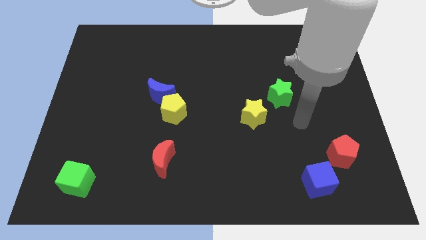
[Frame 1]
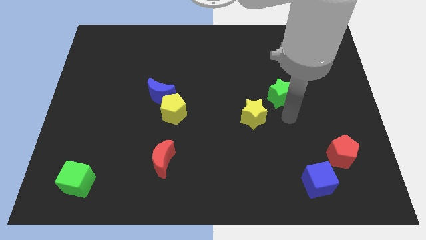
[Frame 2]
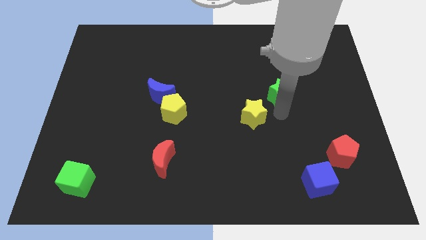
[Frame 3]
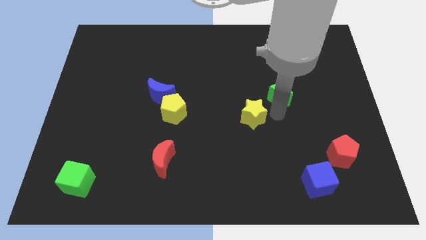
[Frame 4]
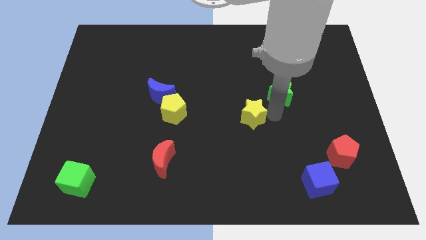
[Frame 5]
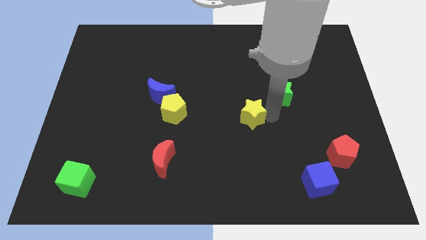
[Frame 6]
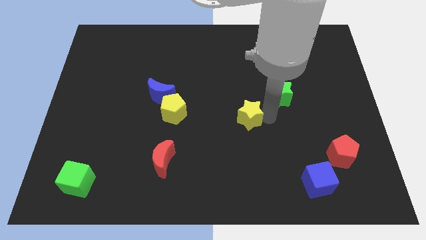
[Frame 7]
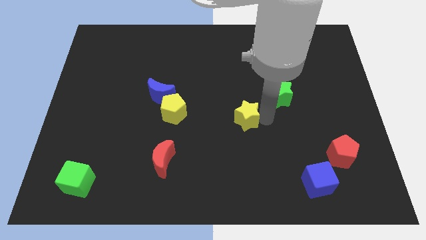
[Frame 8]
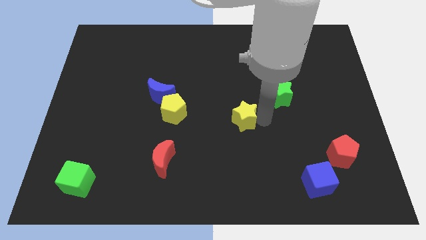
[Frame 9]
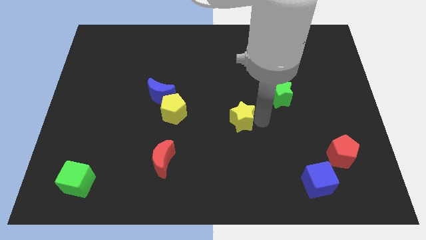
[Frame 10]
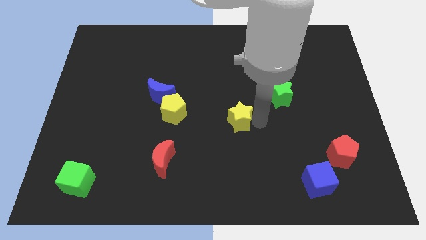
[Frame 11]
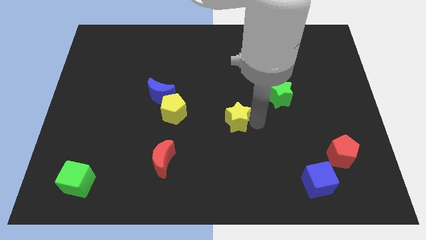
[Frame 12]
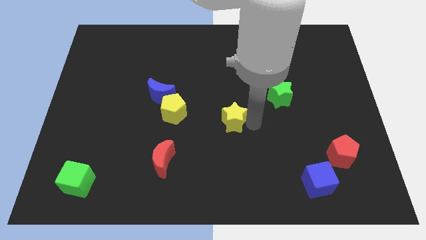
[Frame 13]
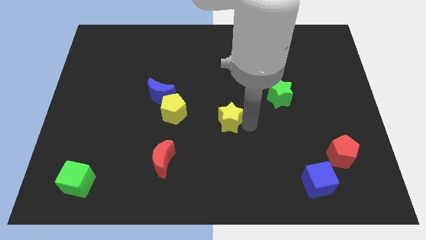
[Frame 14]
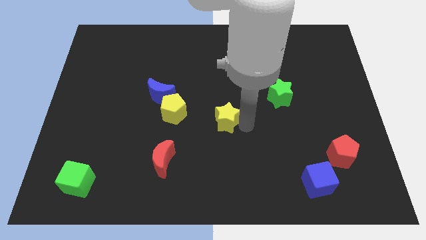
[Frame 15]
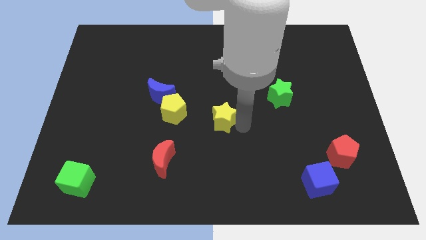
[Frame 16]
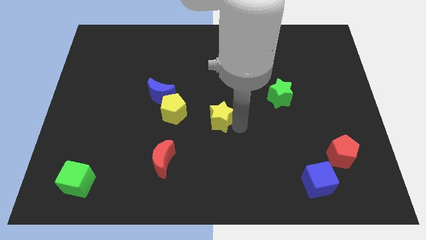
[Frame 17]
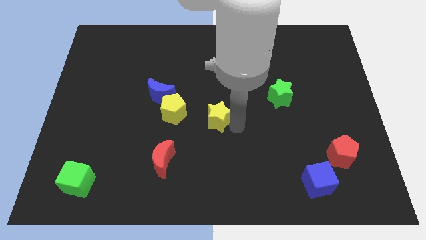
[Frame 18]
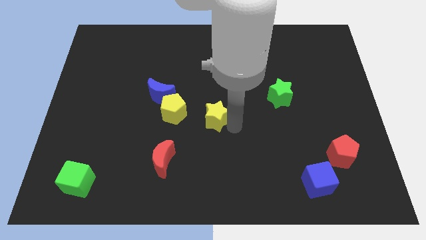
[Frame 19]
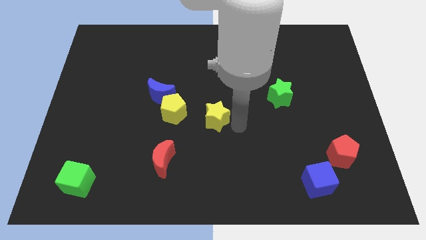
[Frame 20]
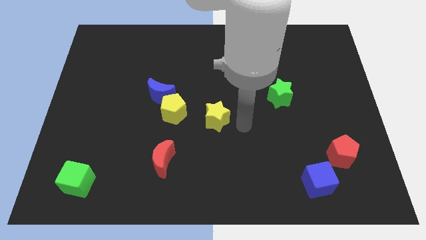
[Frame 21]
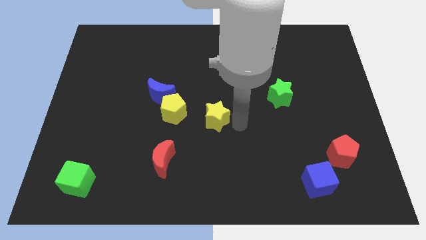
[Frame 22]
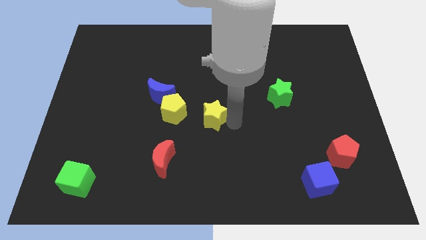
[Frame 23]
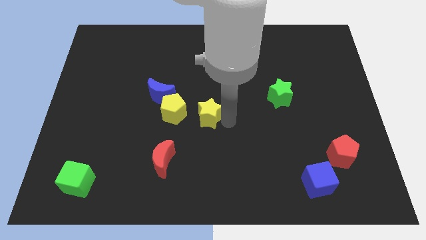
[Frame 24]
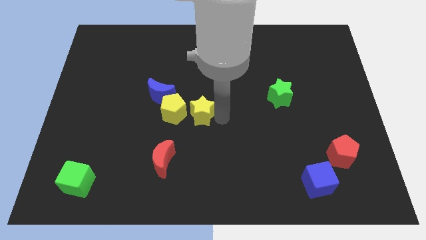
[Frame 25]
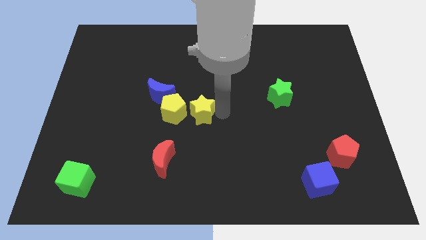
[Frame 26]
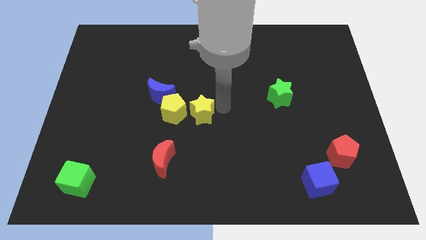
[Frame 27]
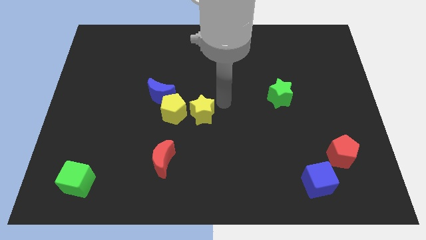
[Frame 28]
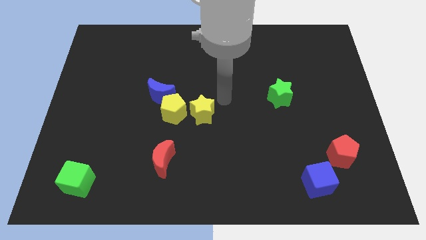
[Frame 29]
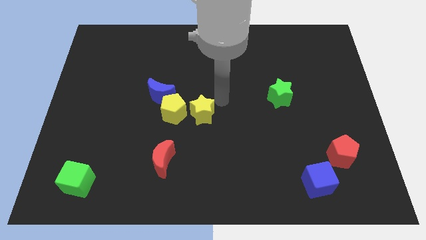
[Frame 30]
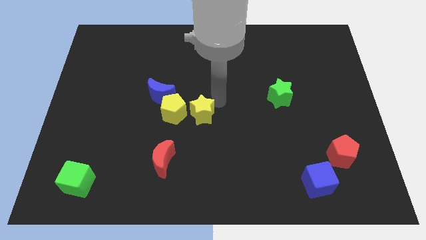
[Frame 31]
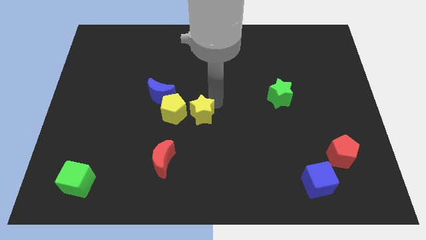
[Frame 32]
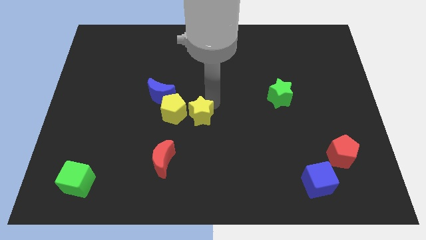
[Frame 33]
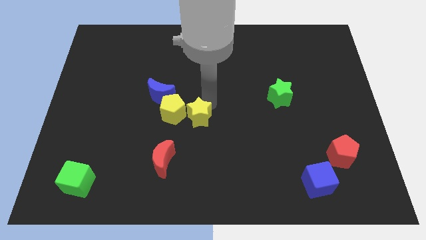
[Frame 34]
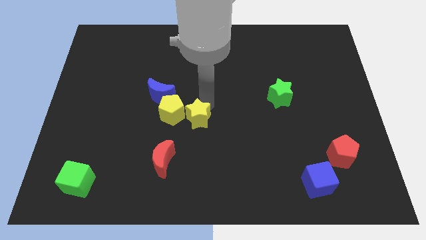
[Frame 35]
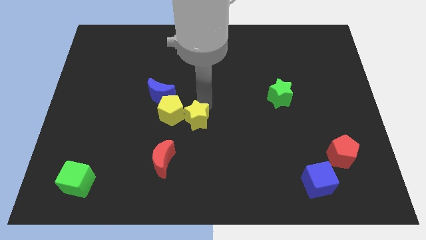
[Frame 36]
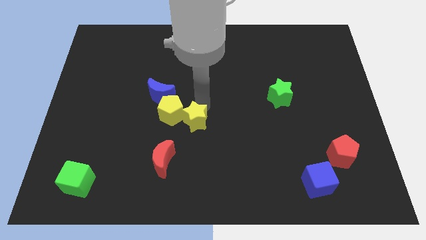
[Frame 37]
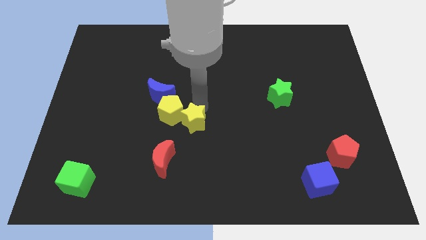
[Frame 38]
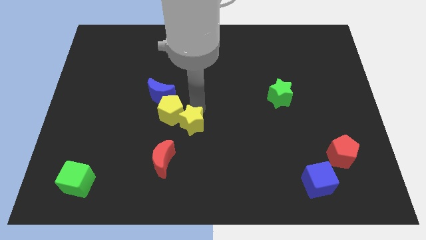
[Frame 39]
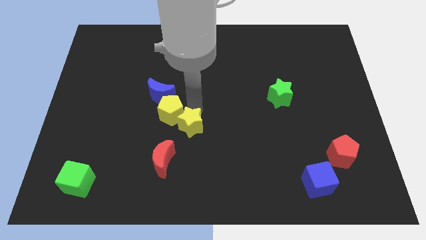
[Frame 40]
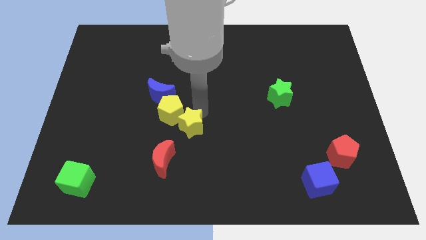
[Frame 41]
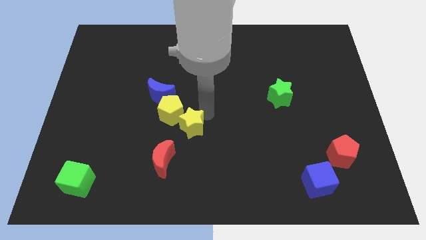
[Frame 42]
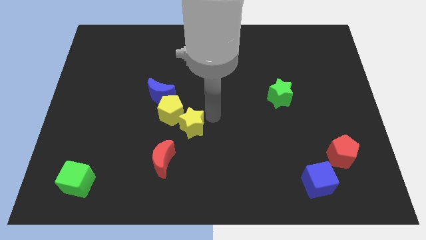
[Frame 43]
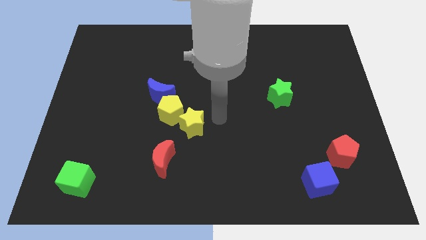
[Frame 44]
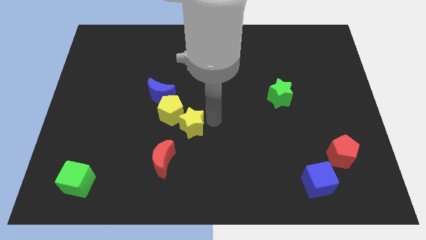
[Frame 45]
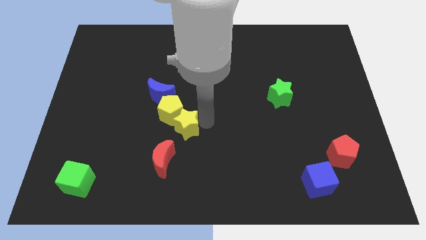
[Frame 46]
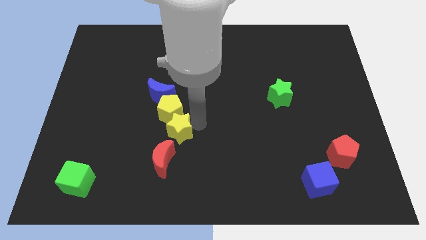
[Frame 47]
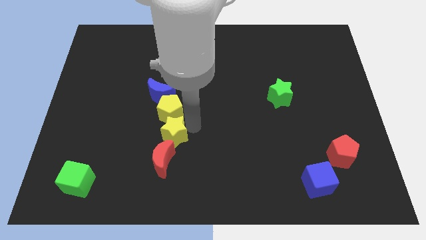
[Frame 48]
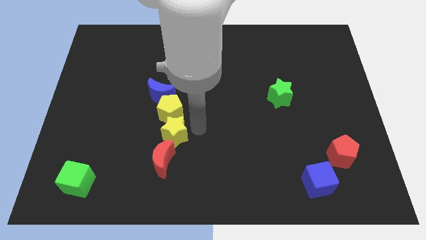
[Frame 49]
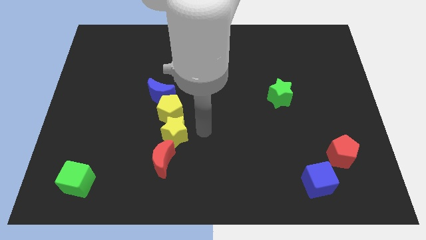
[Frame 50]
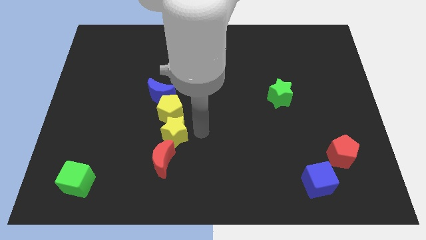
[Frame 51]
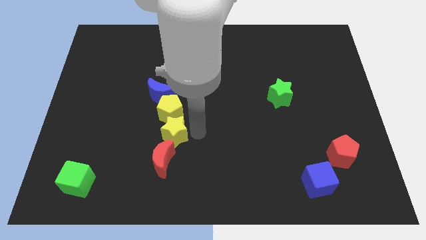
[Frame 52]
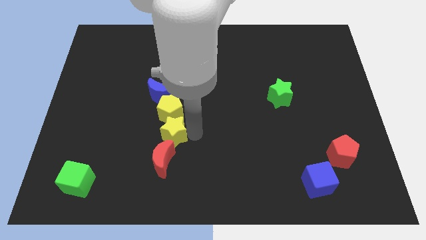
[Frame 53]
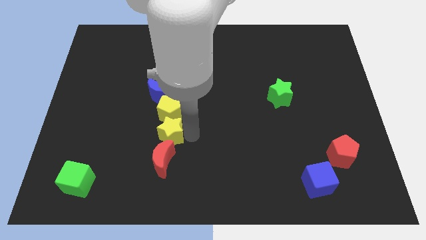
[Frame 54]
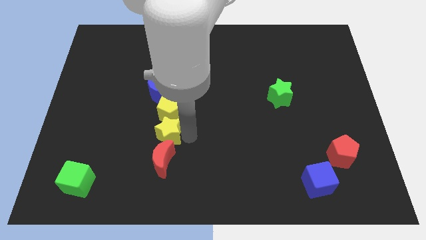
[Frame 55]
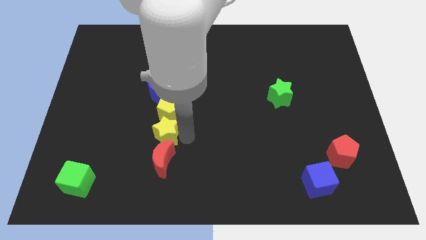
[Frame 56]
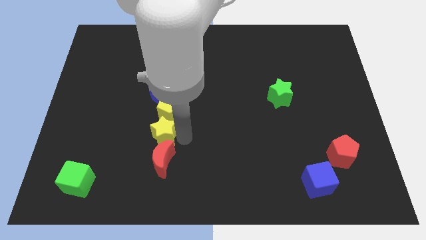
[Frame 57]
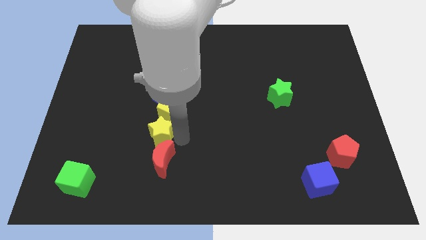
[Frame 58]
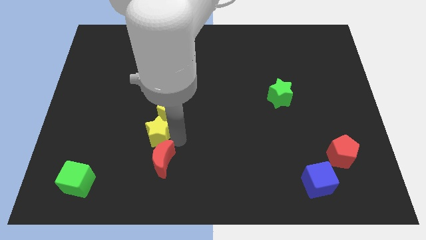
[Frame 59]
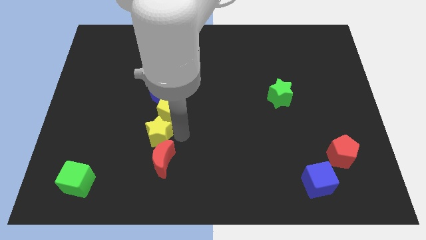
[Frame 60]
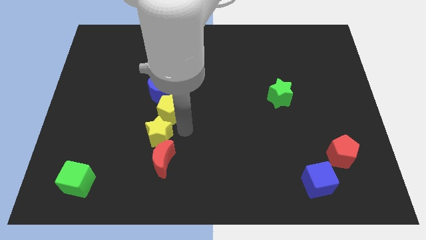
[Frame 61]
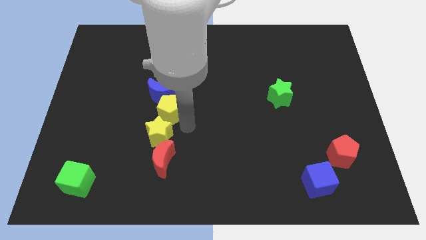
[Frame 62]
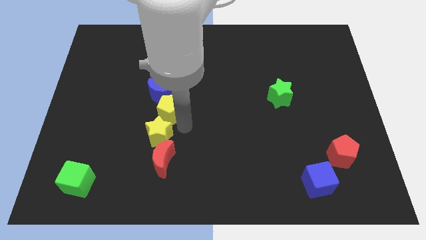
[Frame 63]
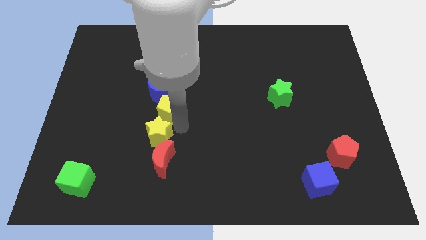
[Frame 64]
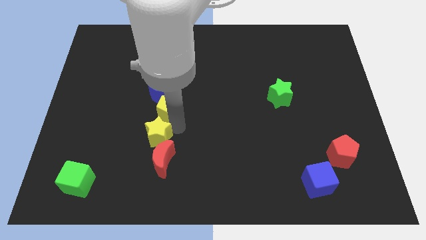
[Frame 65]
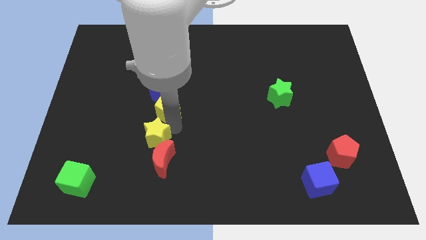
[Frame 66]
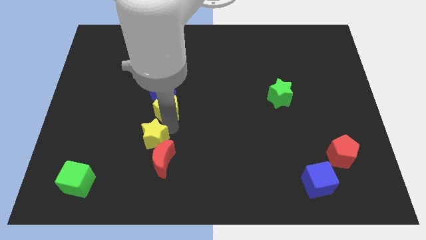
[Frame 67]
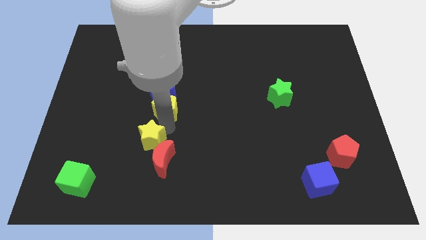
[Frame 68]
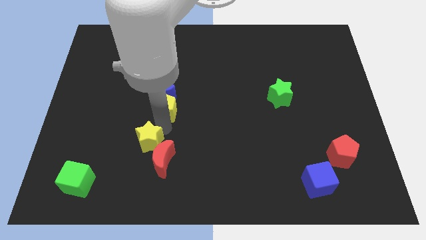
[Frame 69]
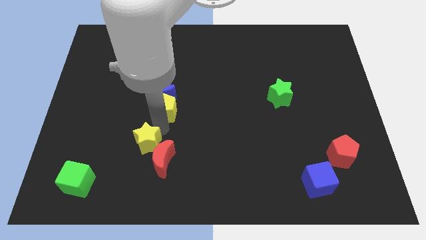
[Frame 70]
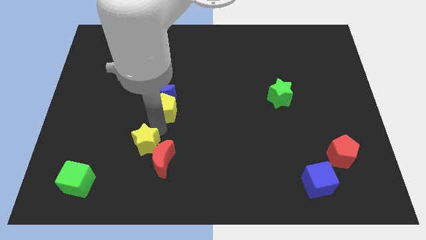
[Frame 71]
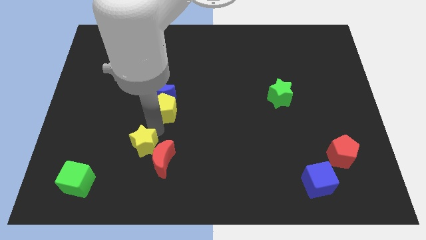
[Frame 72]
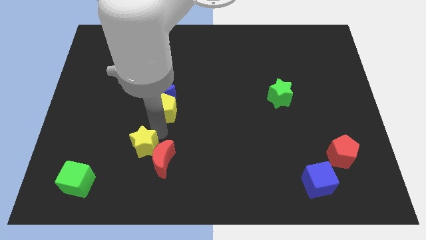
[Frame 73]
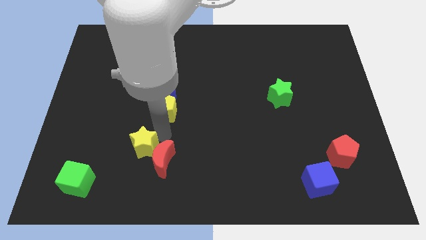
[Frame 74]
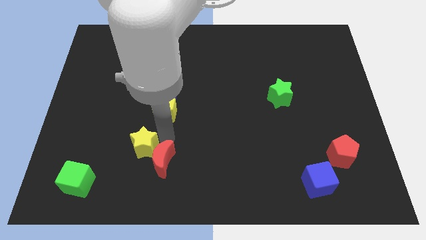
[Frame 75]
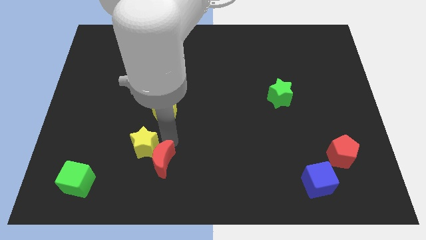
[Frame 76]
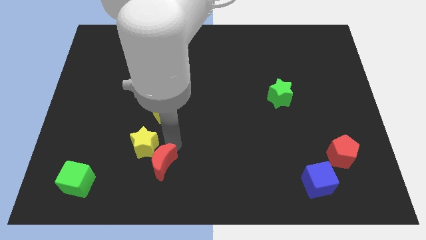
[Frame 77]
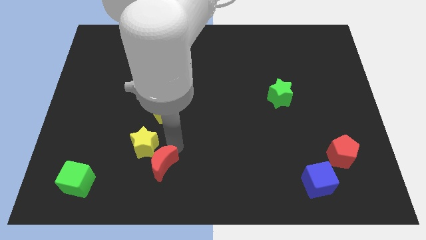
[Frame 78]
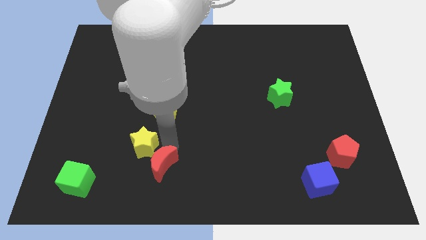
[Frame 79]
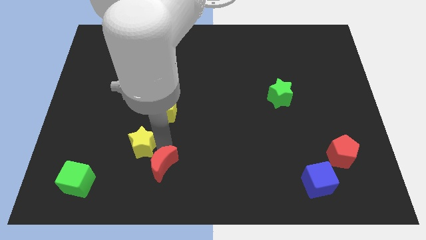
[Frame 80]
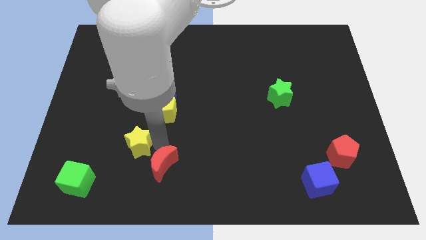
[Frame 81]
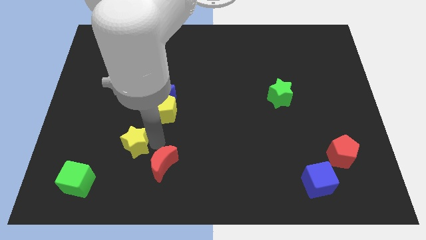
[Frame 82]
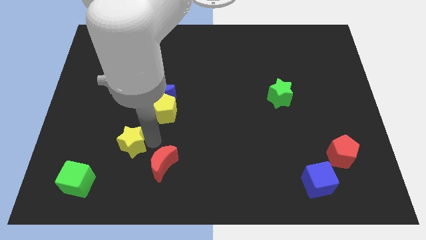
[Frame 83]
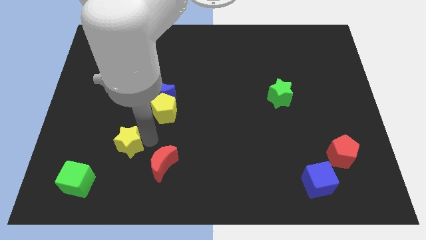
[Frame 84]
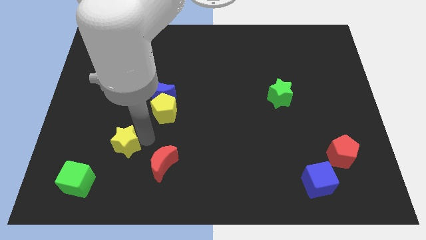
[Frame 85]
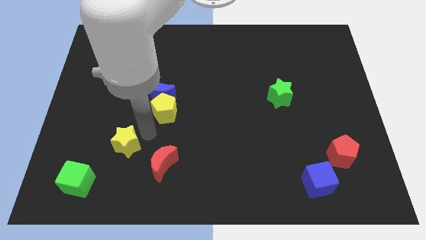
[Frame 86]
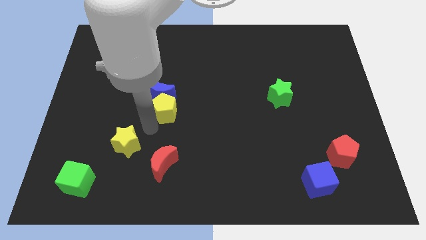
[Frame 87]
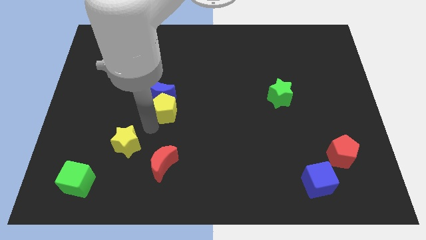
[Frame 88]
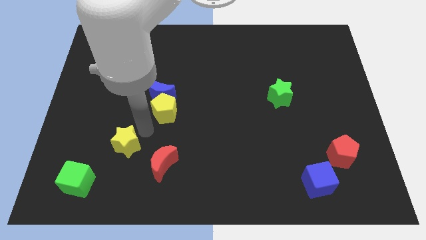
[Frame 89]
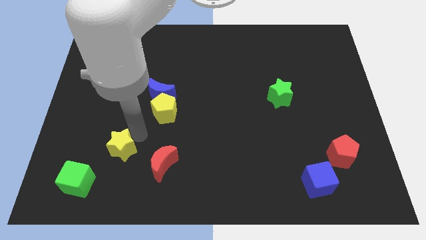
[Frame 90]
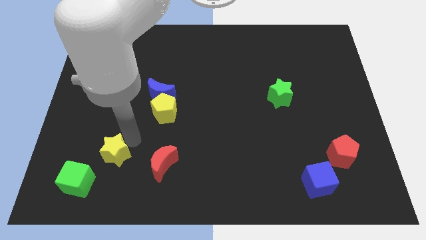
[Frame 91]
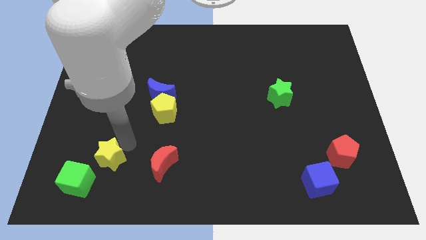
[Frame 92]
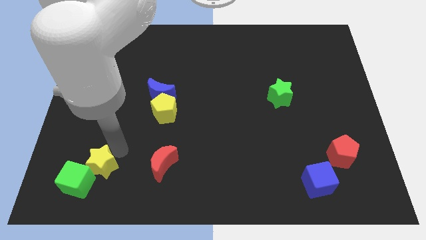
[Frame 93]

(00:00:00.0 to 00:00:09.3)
slide the yellow star to the green cube
